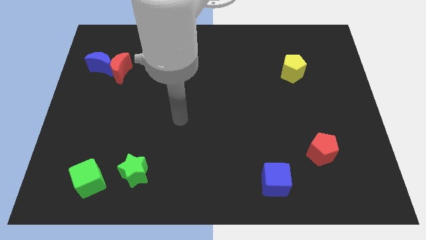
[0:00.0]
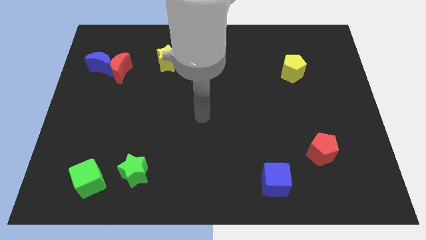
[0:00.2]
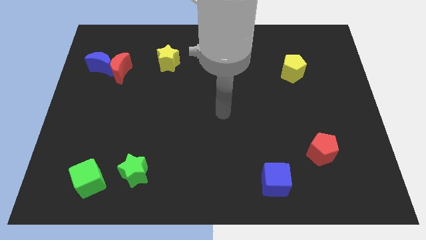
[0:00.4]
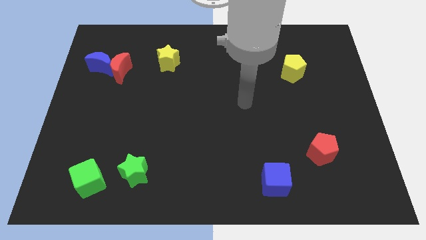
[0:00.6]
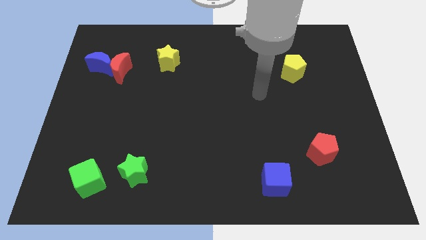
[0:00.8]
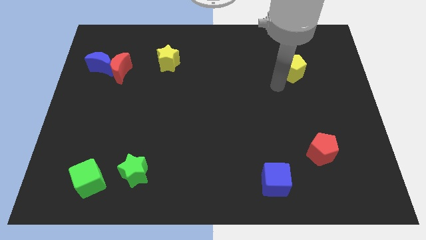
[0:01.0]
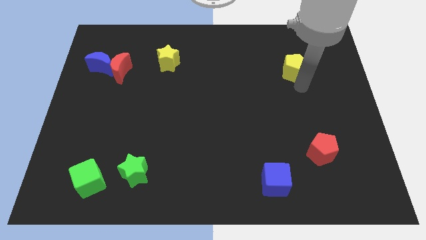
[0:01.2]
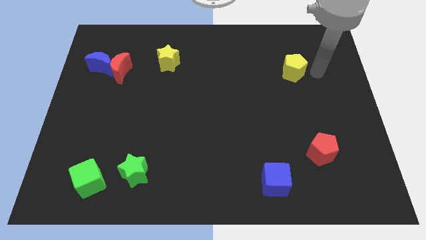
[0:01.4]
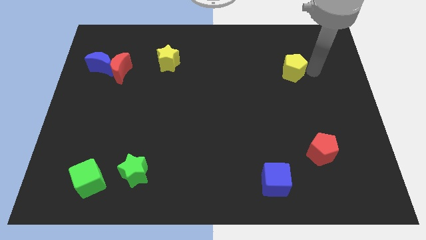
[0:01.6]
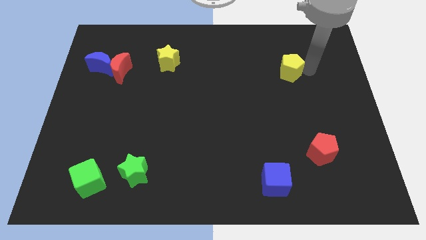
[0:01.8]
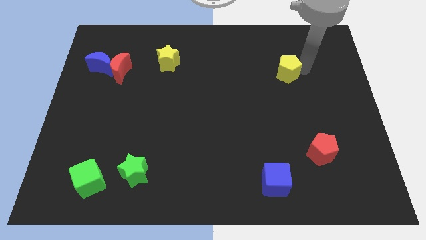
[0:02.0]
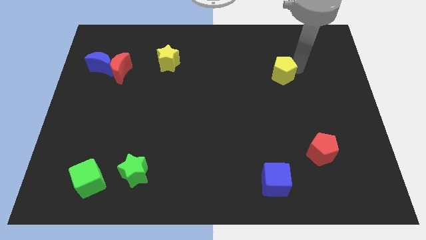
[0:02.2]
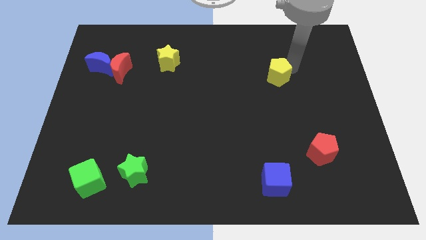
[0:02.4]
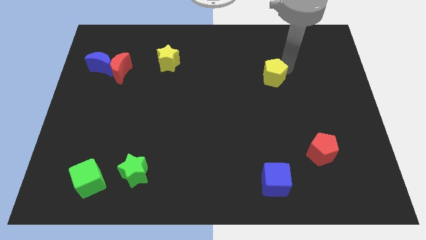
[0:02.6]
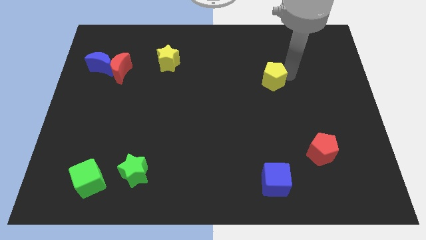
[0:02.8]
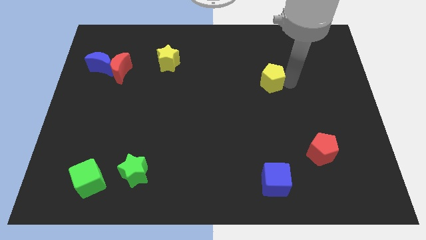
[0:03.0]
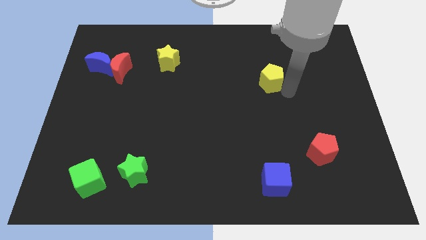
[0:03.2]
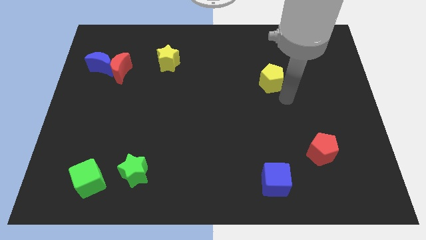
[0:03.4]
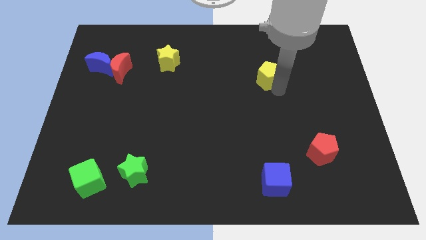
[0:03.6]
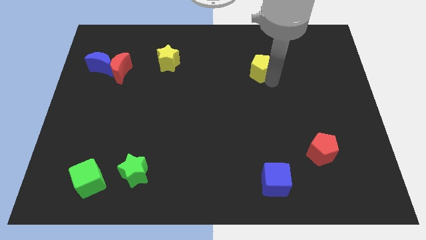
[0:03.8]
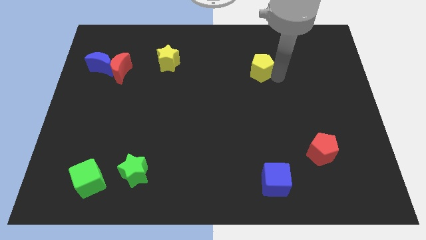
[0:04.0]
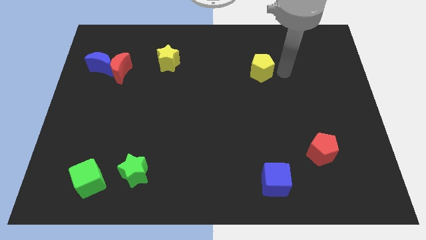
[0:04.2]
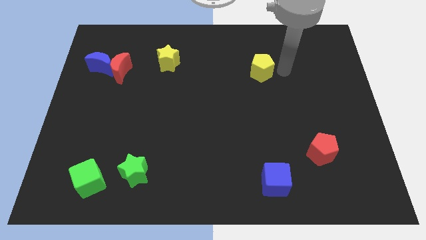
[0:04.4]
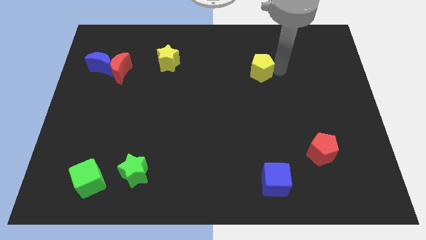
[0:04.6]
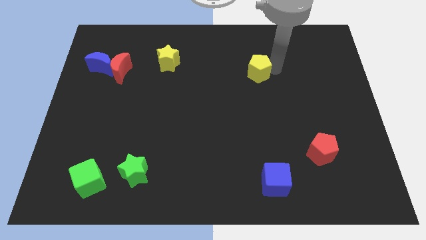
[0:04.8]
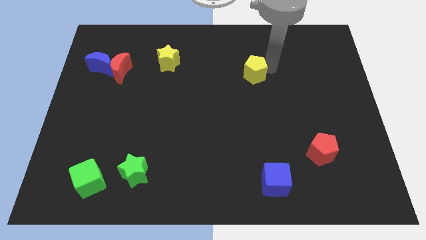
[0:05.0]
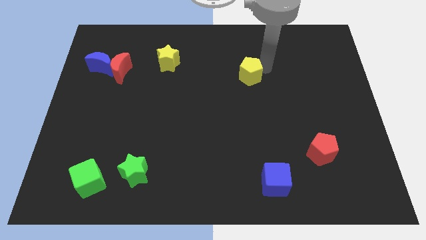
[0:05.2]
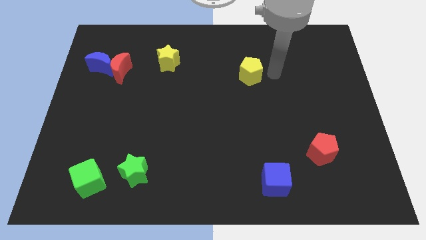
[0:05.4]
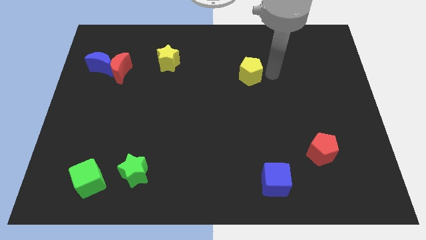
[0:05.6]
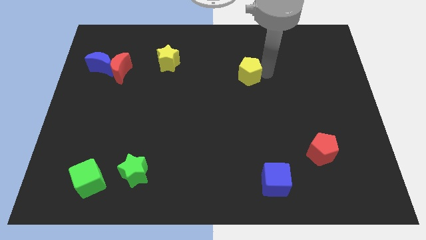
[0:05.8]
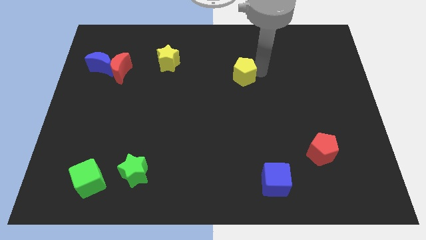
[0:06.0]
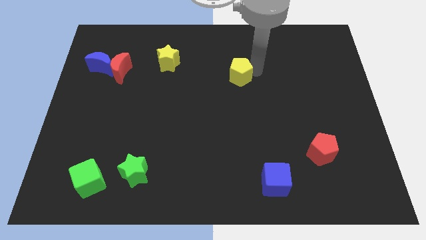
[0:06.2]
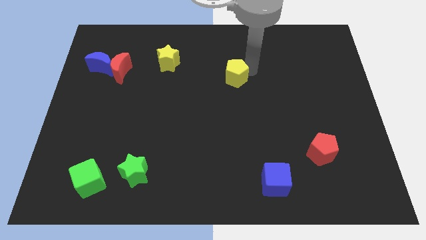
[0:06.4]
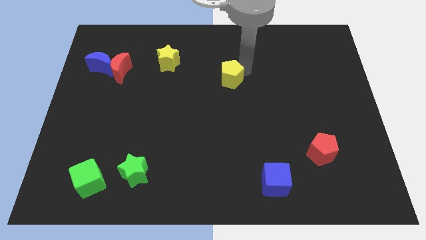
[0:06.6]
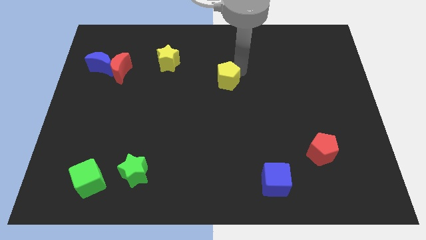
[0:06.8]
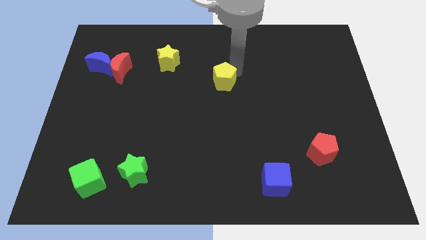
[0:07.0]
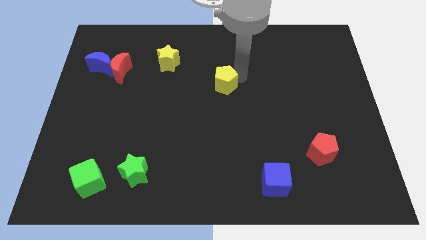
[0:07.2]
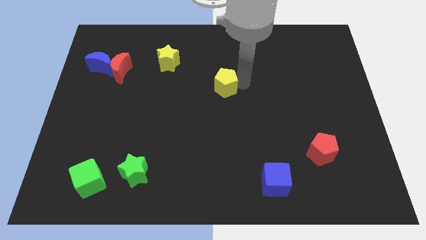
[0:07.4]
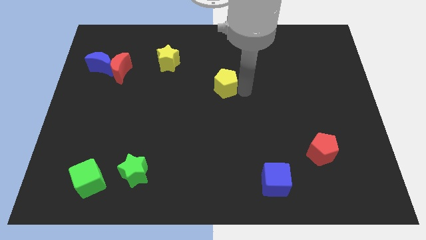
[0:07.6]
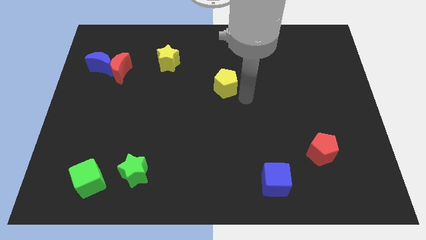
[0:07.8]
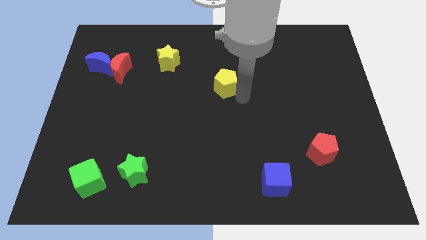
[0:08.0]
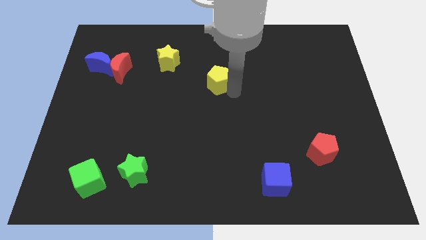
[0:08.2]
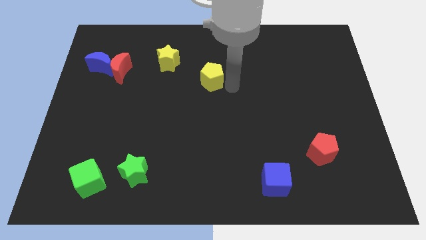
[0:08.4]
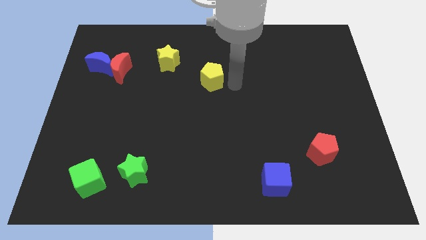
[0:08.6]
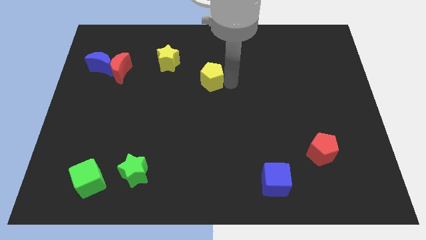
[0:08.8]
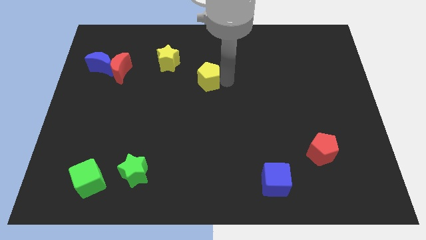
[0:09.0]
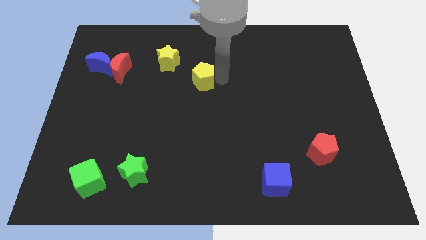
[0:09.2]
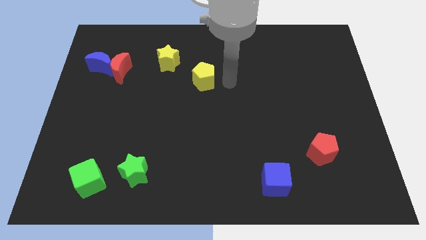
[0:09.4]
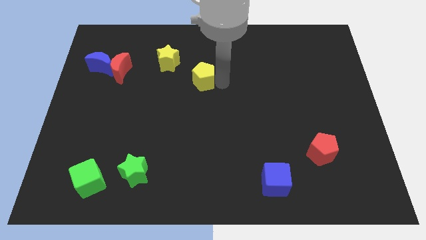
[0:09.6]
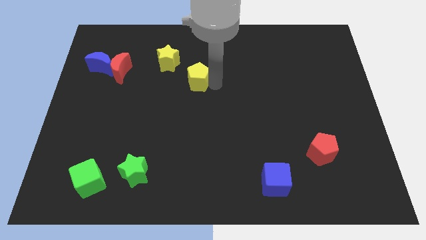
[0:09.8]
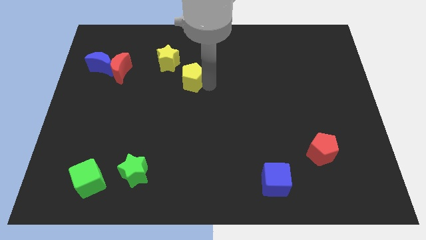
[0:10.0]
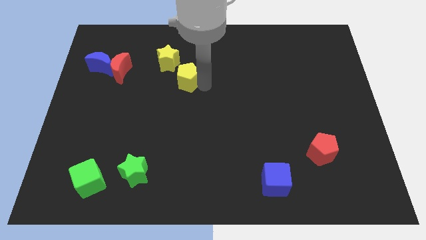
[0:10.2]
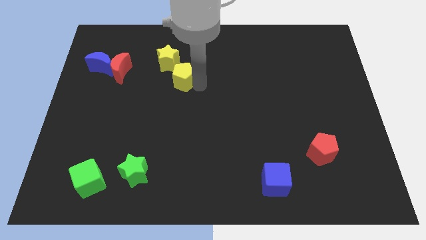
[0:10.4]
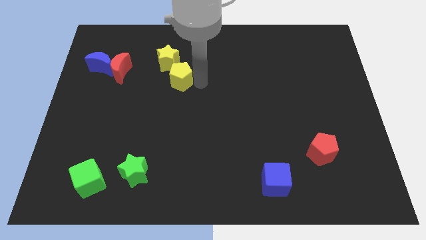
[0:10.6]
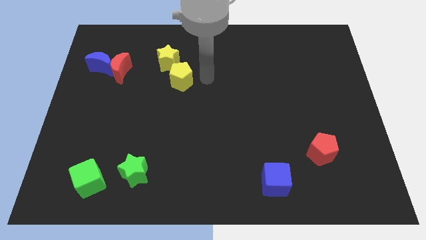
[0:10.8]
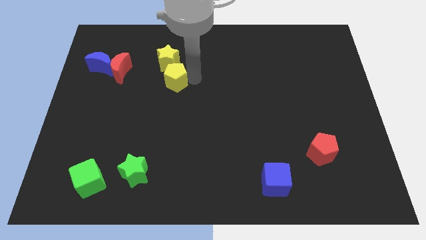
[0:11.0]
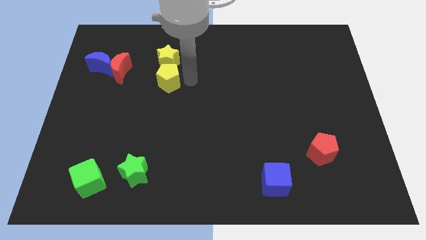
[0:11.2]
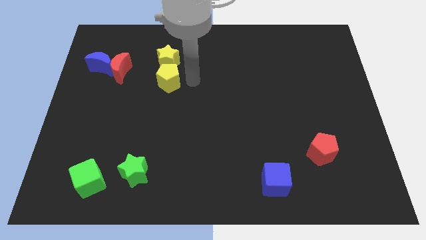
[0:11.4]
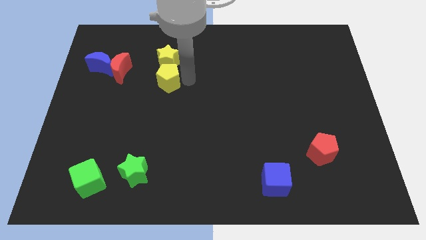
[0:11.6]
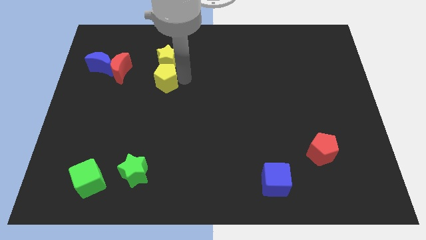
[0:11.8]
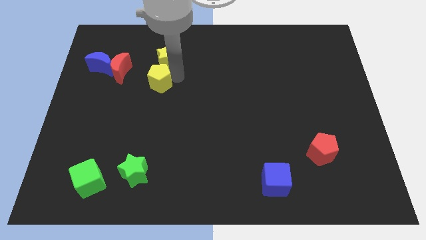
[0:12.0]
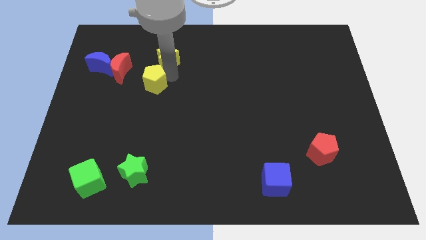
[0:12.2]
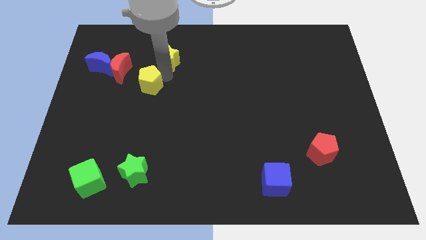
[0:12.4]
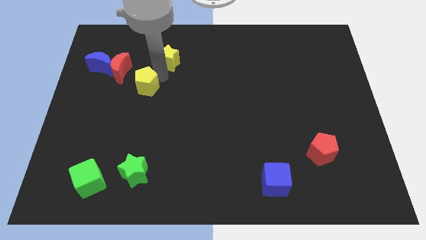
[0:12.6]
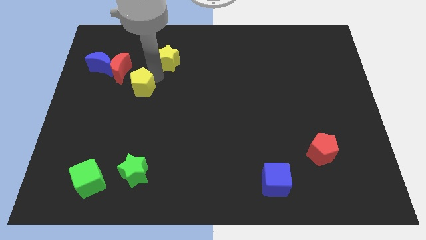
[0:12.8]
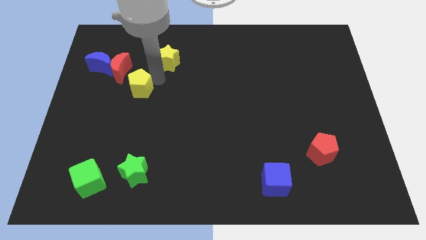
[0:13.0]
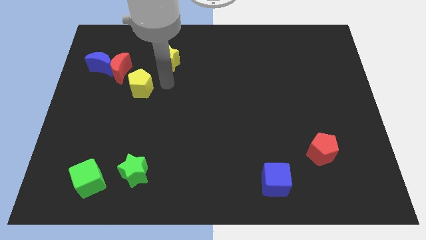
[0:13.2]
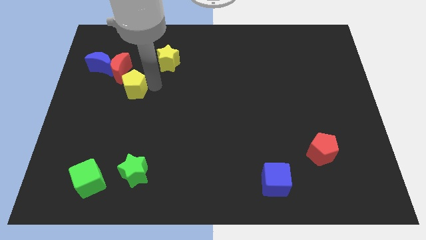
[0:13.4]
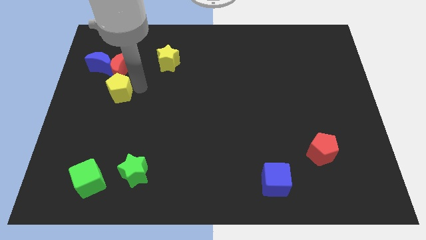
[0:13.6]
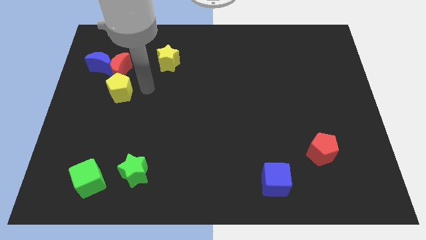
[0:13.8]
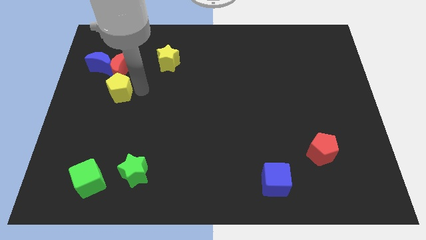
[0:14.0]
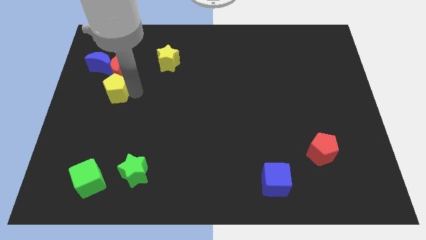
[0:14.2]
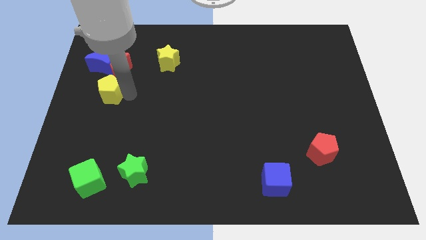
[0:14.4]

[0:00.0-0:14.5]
put the yellow pentagon to the left side
